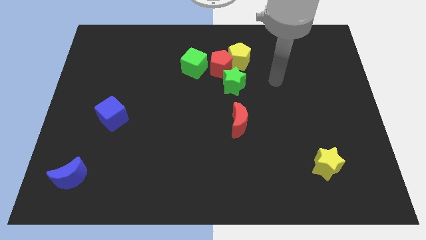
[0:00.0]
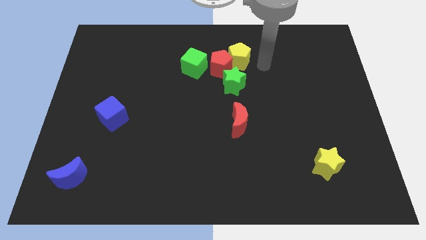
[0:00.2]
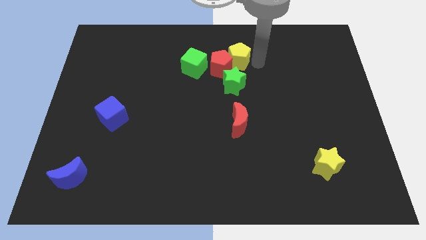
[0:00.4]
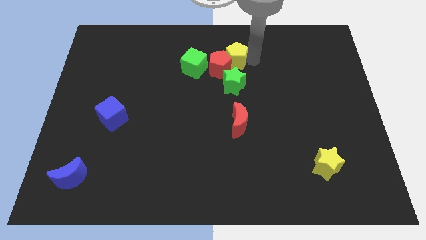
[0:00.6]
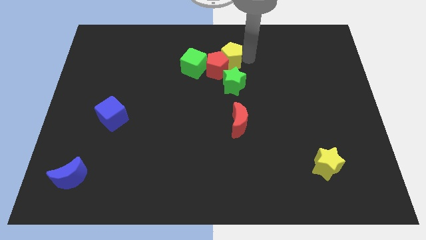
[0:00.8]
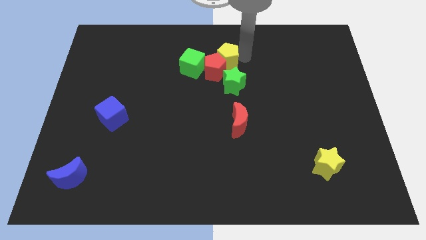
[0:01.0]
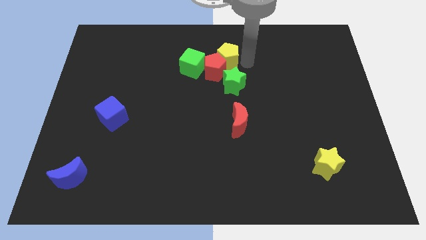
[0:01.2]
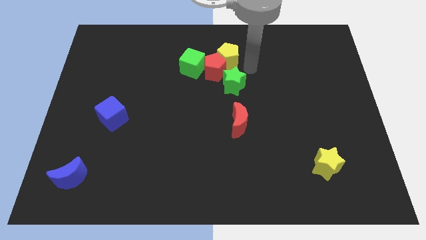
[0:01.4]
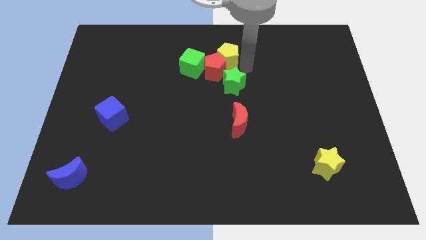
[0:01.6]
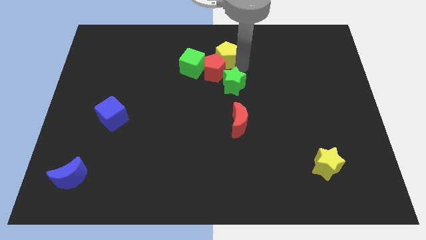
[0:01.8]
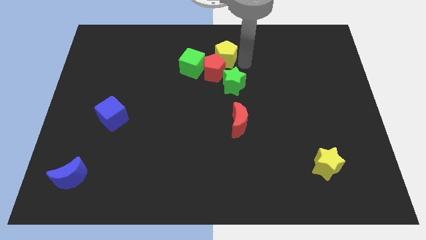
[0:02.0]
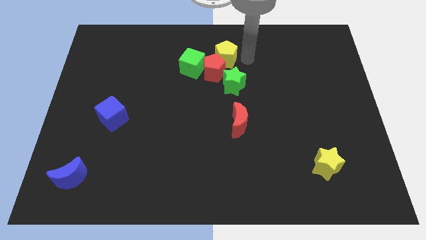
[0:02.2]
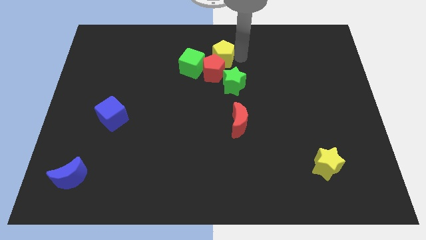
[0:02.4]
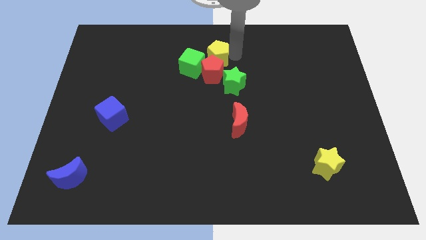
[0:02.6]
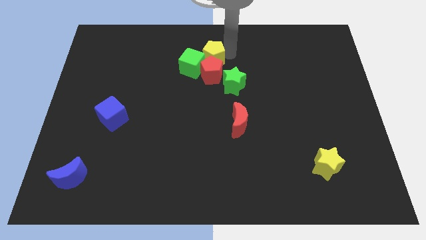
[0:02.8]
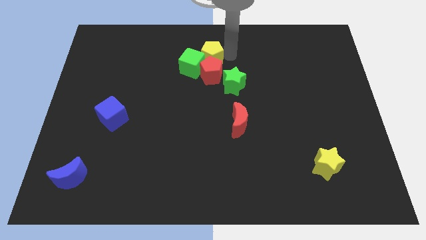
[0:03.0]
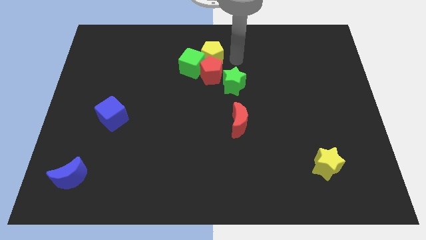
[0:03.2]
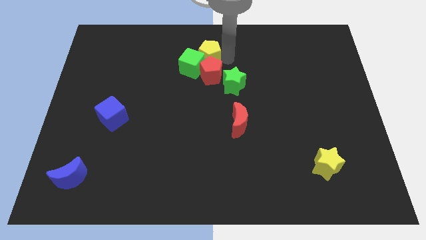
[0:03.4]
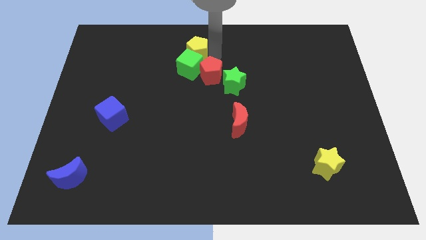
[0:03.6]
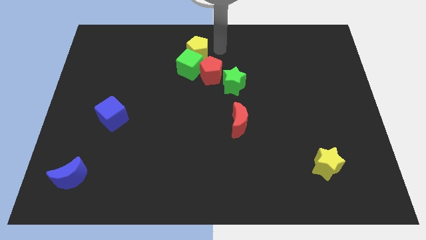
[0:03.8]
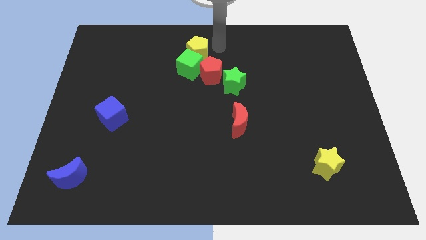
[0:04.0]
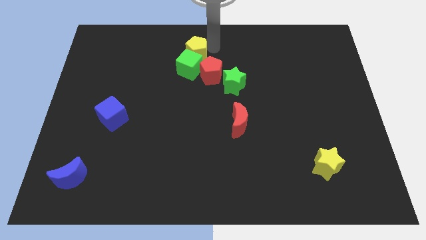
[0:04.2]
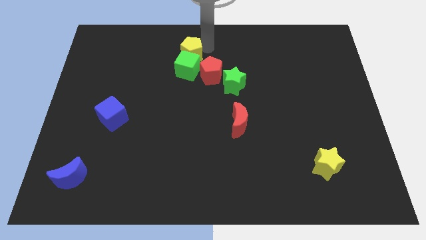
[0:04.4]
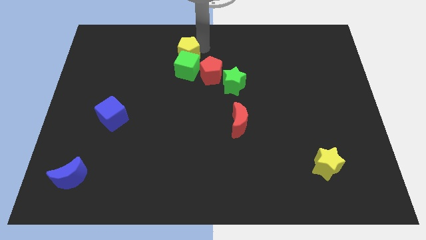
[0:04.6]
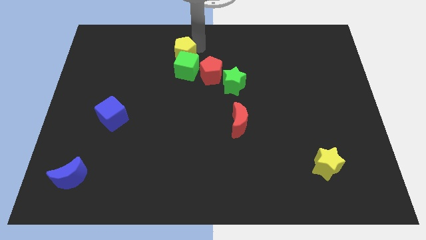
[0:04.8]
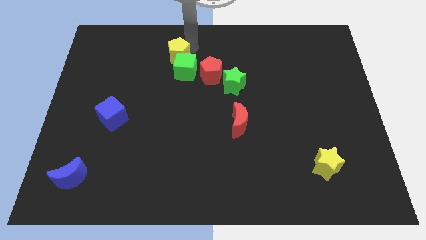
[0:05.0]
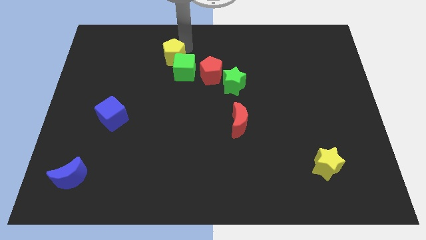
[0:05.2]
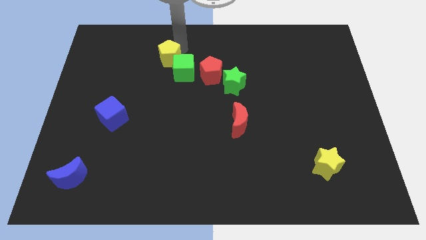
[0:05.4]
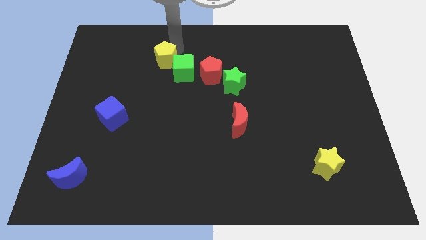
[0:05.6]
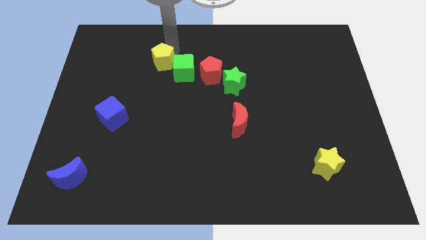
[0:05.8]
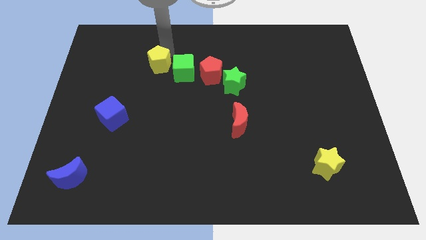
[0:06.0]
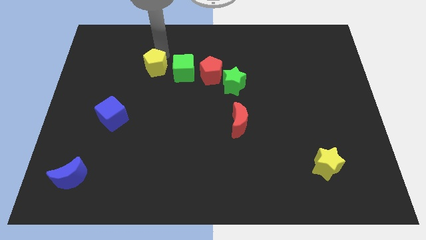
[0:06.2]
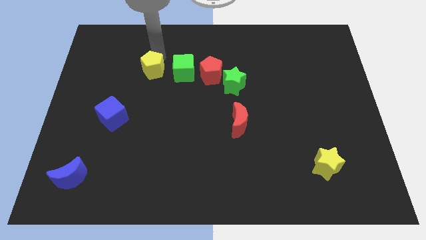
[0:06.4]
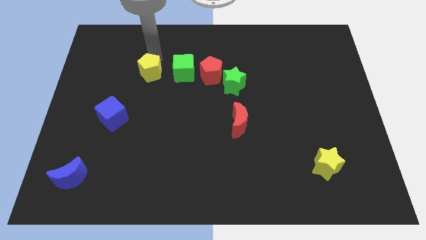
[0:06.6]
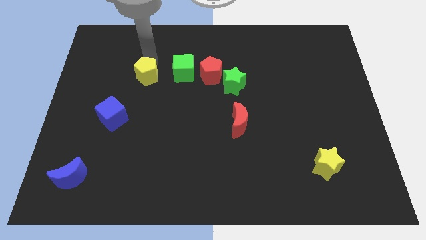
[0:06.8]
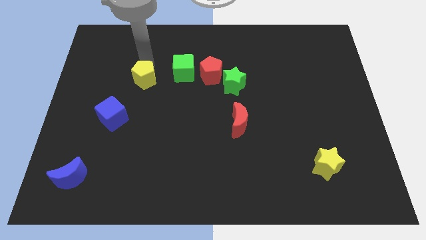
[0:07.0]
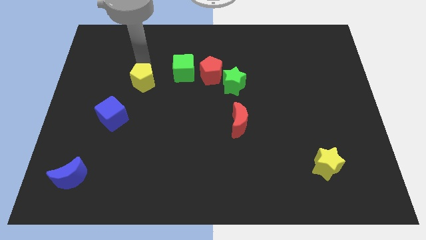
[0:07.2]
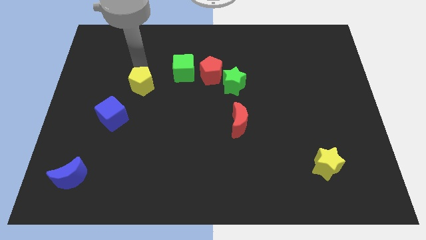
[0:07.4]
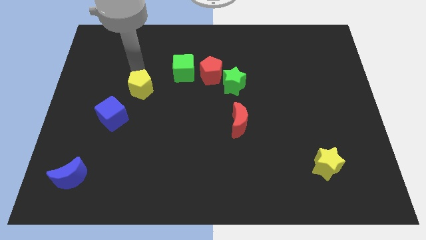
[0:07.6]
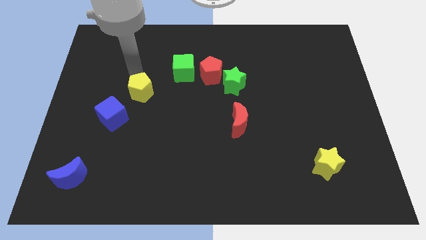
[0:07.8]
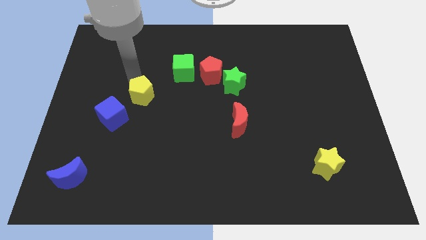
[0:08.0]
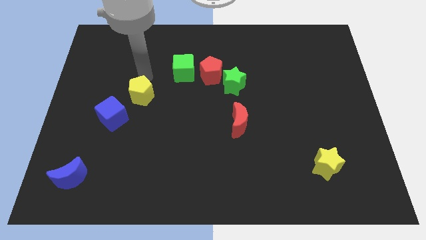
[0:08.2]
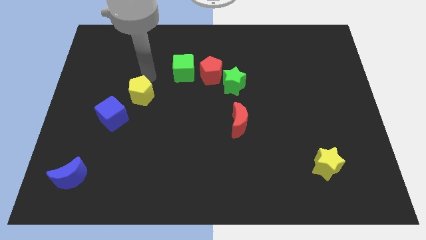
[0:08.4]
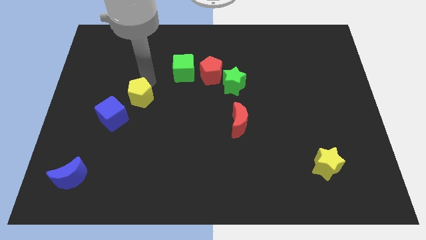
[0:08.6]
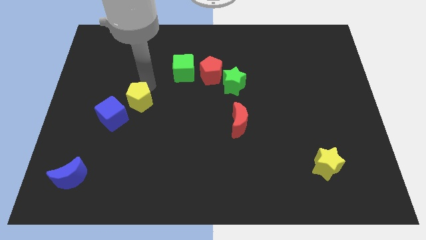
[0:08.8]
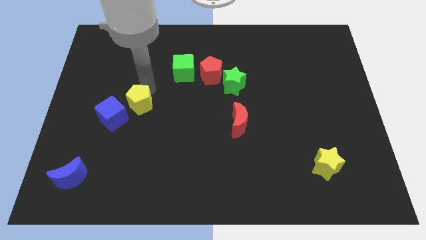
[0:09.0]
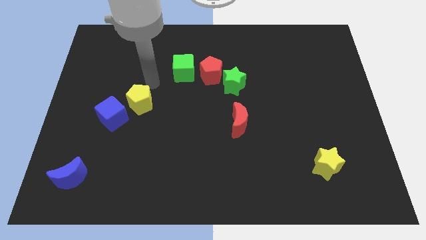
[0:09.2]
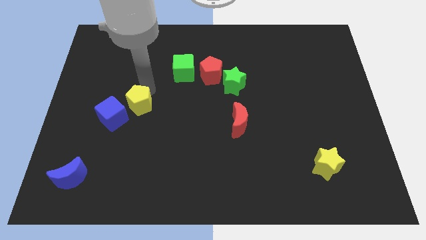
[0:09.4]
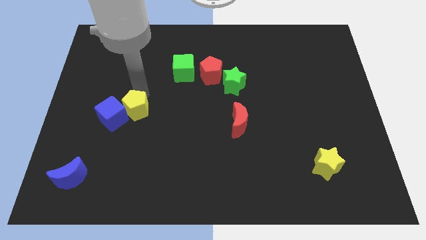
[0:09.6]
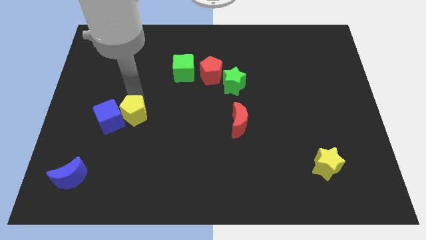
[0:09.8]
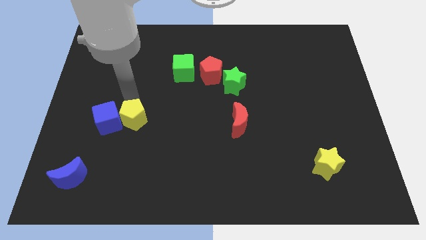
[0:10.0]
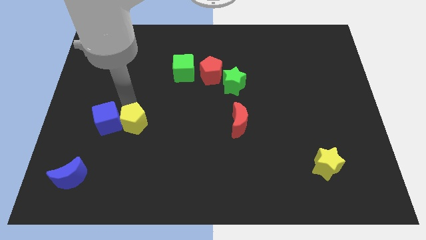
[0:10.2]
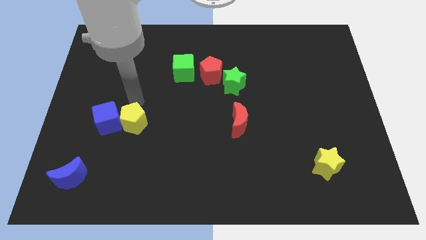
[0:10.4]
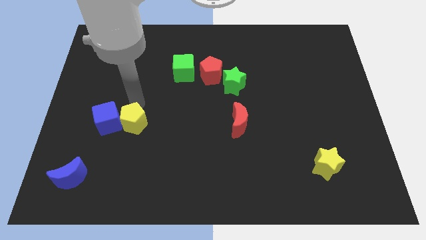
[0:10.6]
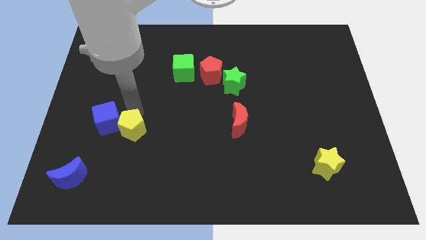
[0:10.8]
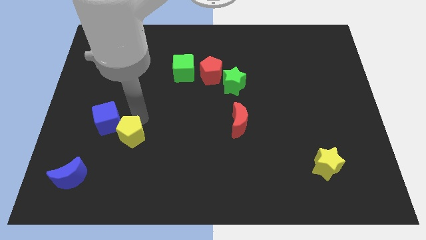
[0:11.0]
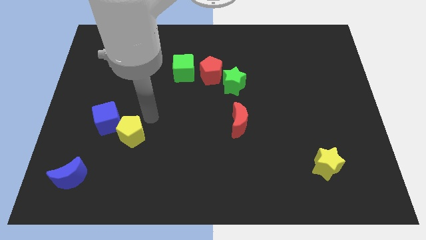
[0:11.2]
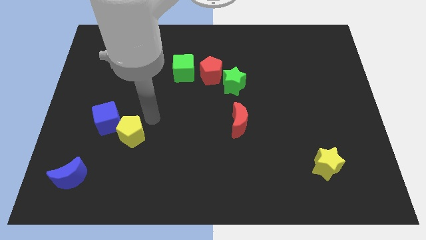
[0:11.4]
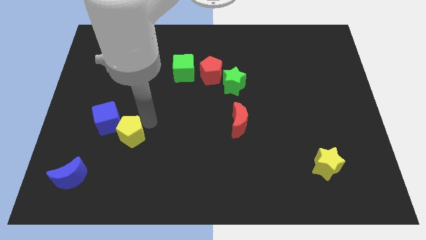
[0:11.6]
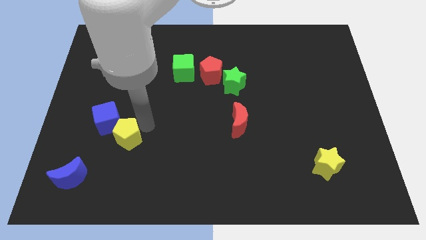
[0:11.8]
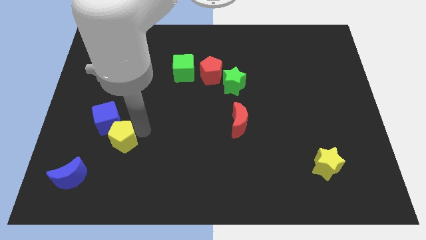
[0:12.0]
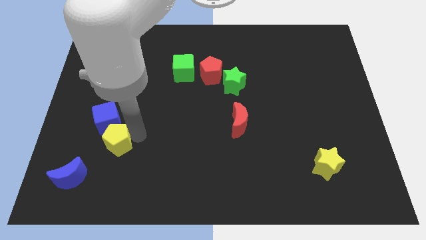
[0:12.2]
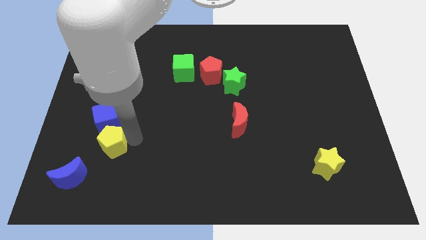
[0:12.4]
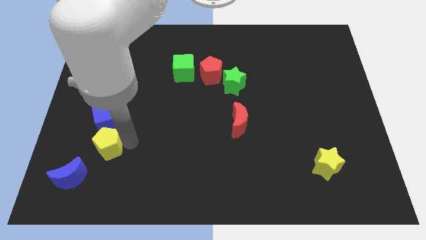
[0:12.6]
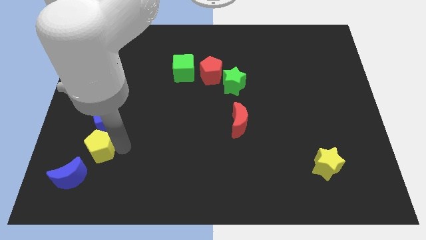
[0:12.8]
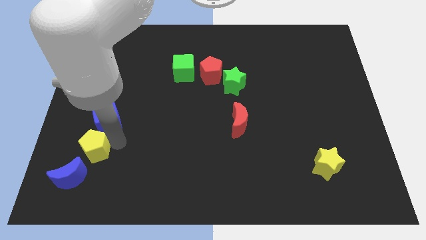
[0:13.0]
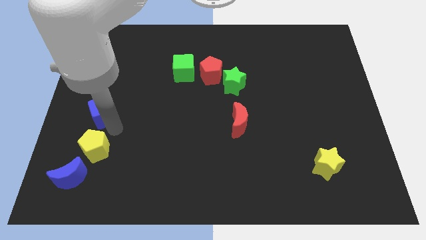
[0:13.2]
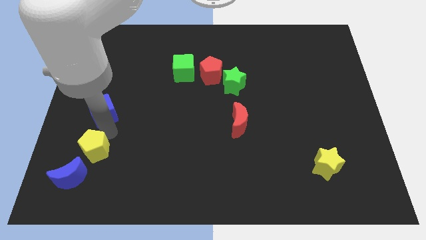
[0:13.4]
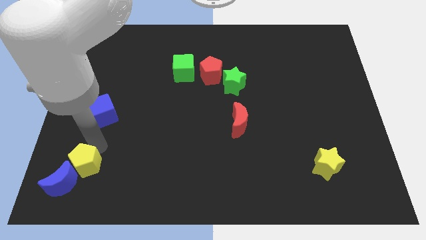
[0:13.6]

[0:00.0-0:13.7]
move the yellow pentagon towards the blue moon
